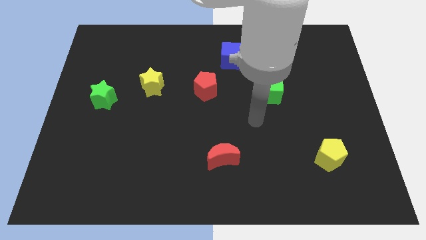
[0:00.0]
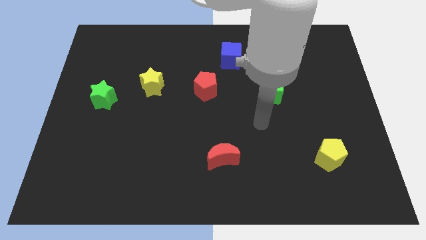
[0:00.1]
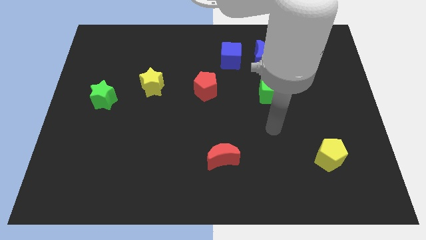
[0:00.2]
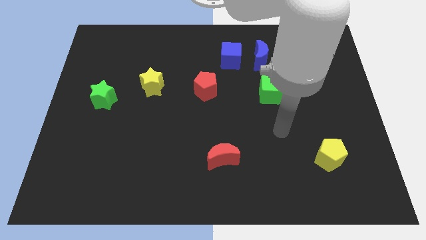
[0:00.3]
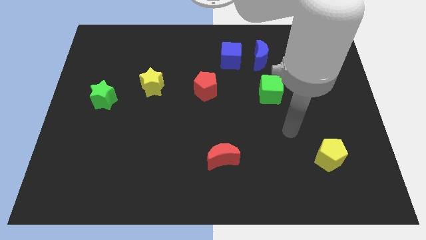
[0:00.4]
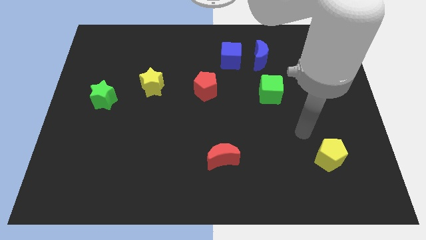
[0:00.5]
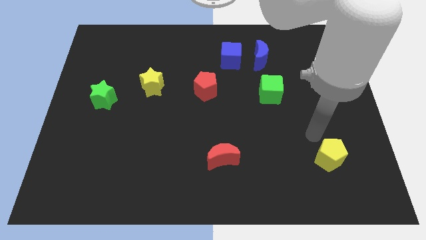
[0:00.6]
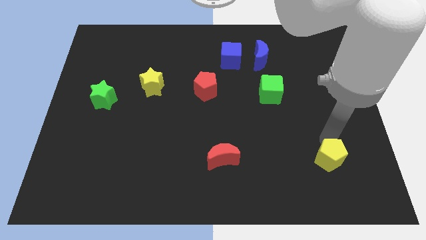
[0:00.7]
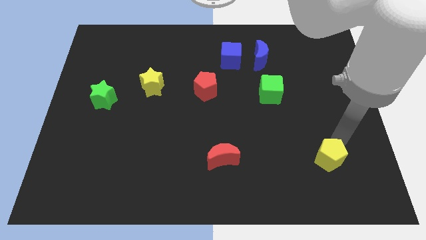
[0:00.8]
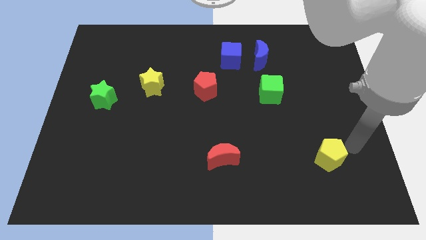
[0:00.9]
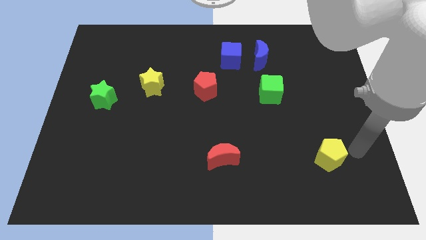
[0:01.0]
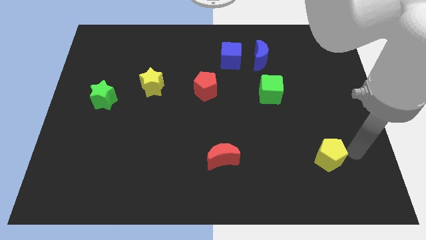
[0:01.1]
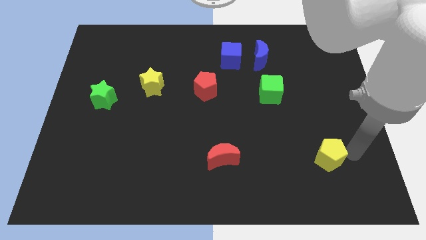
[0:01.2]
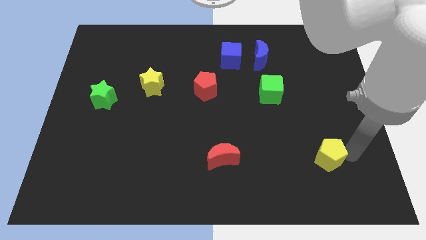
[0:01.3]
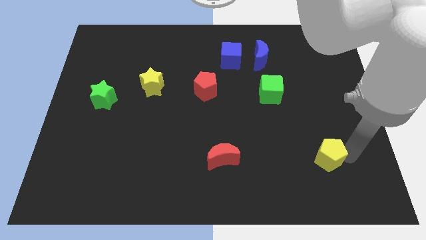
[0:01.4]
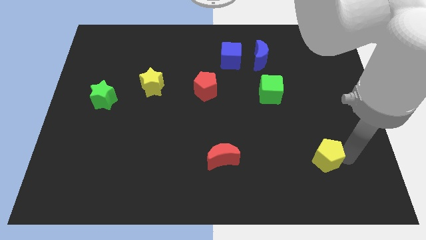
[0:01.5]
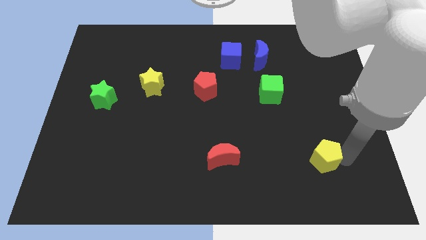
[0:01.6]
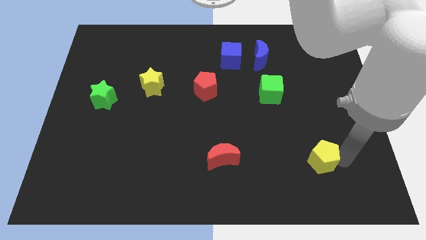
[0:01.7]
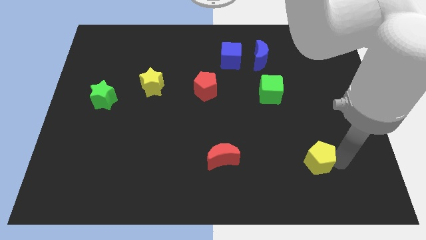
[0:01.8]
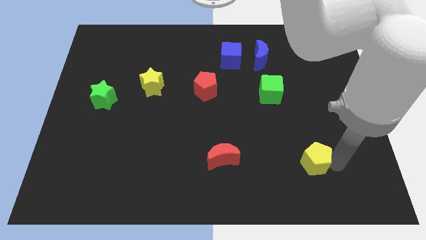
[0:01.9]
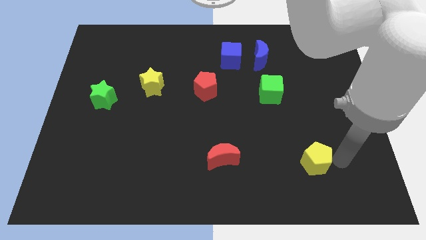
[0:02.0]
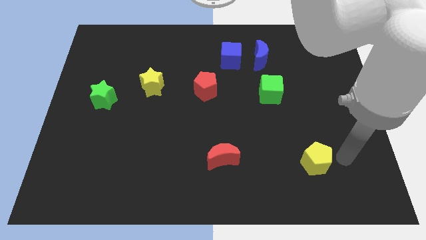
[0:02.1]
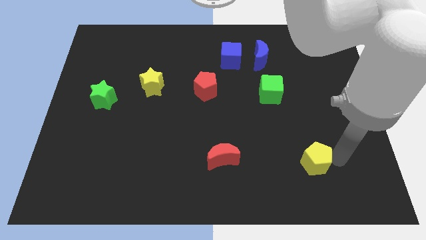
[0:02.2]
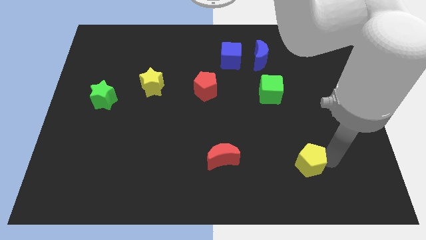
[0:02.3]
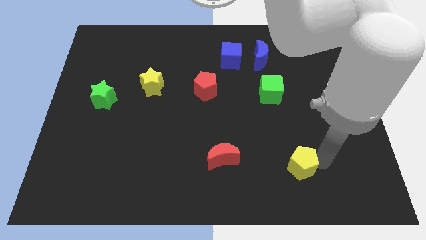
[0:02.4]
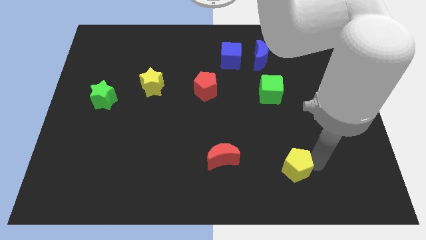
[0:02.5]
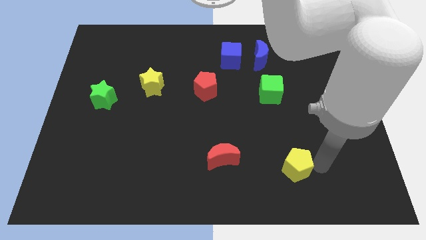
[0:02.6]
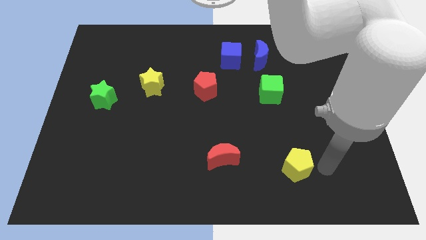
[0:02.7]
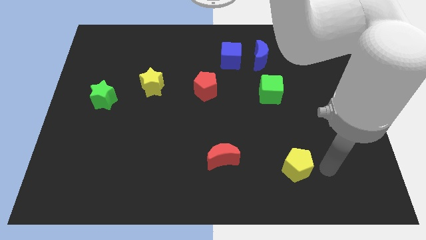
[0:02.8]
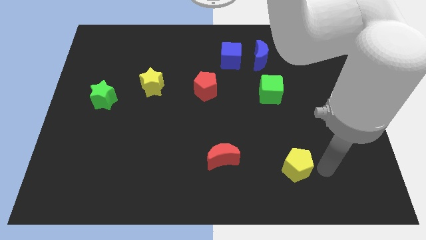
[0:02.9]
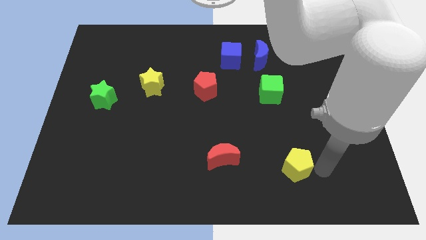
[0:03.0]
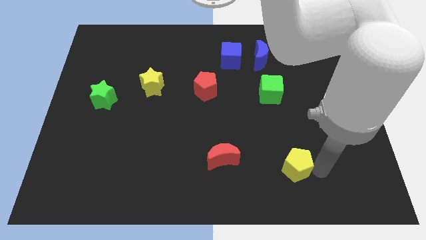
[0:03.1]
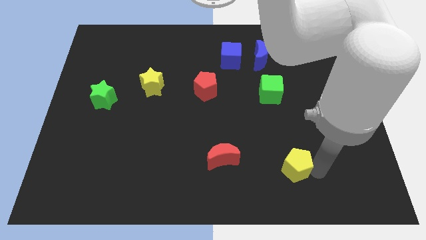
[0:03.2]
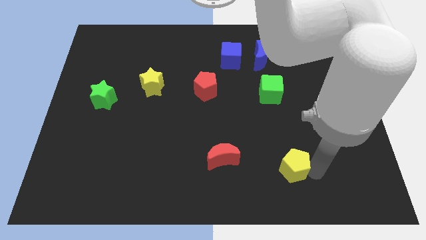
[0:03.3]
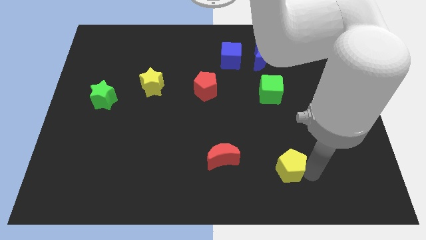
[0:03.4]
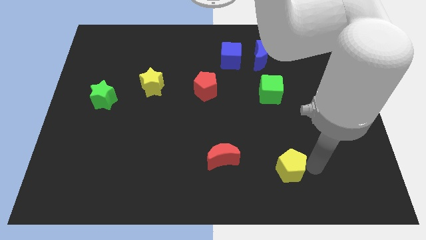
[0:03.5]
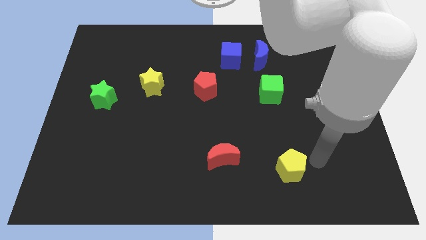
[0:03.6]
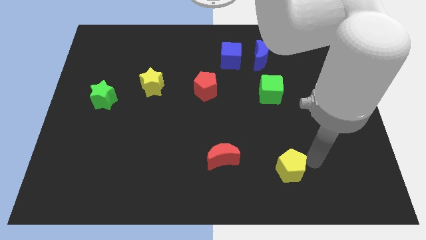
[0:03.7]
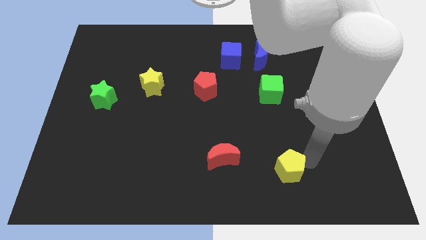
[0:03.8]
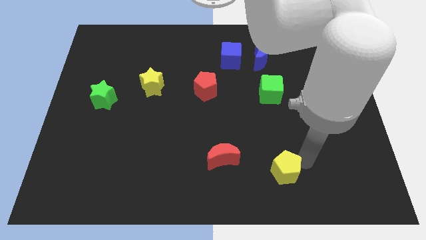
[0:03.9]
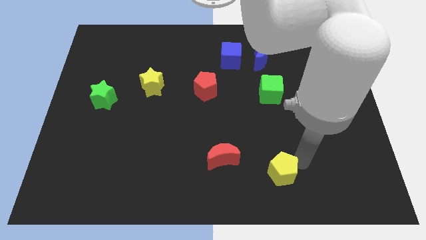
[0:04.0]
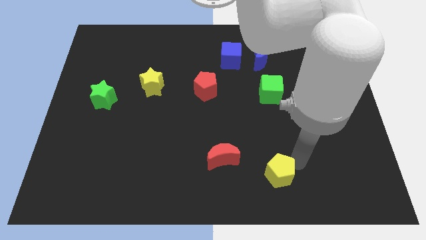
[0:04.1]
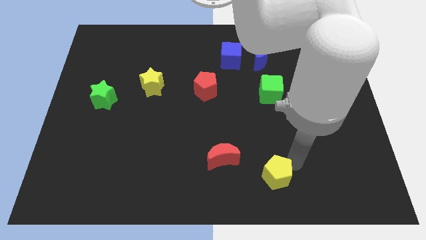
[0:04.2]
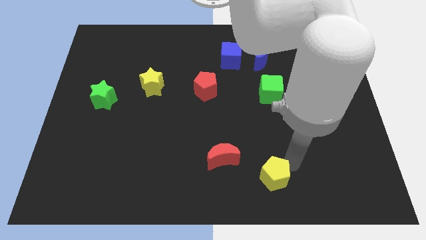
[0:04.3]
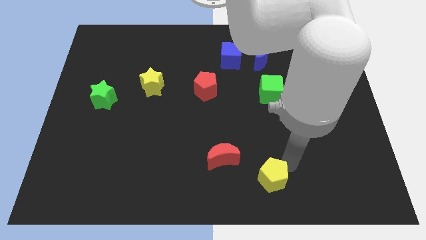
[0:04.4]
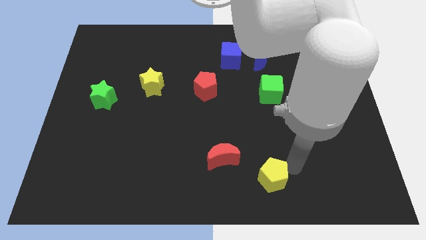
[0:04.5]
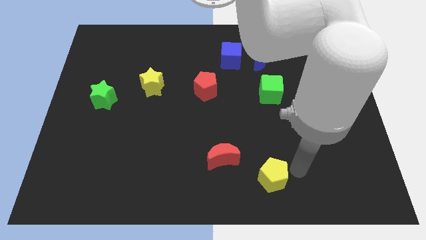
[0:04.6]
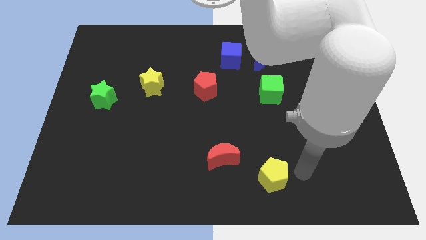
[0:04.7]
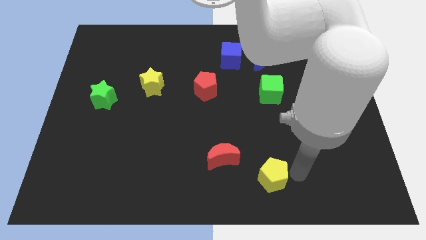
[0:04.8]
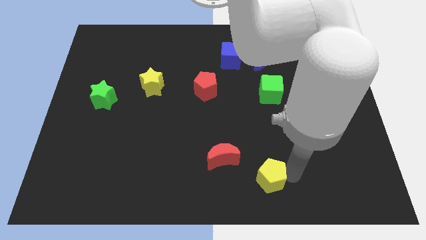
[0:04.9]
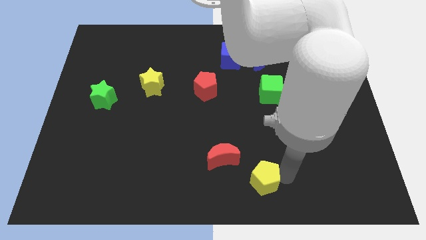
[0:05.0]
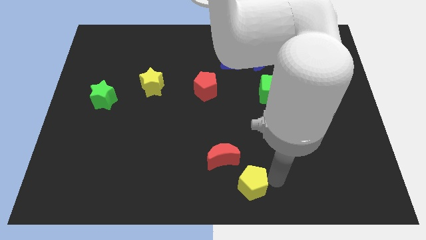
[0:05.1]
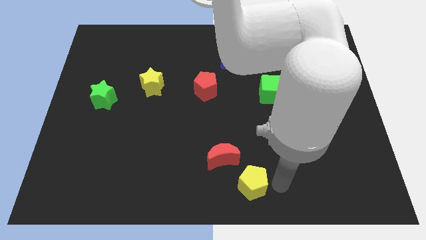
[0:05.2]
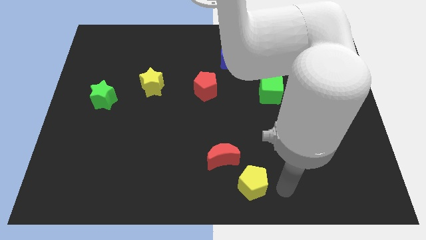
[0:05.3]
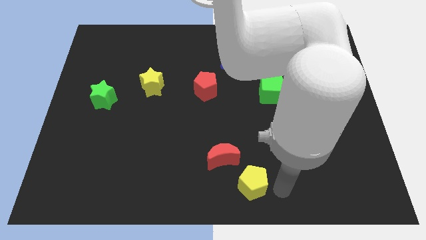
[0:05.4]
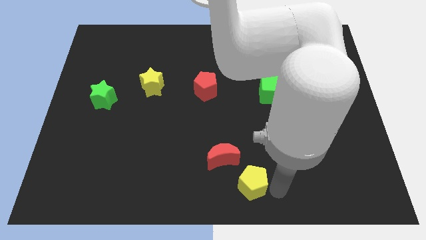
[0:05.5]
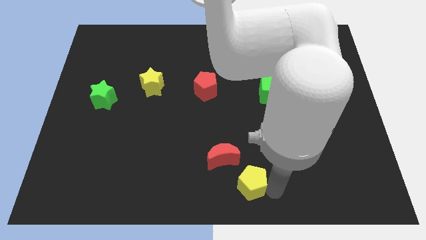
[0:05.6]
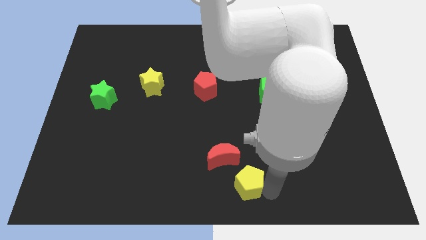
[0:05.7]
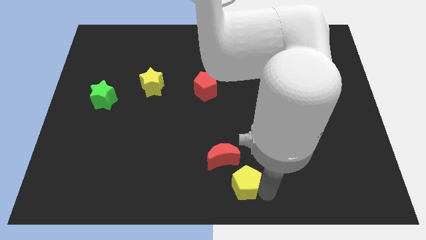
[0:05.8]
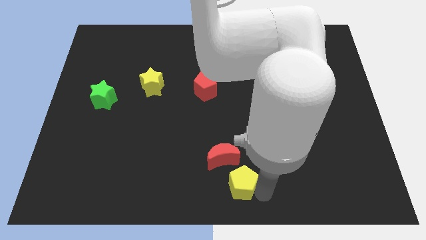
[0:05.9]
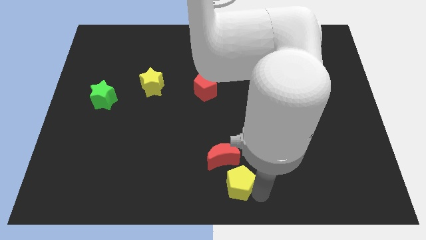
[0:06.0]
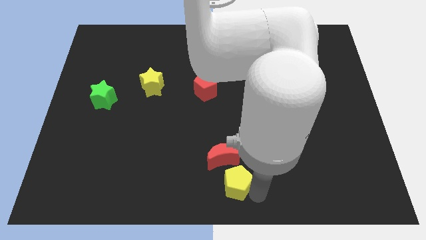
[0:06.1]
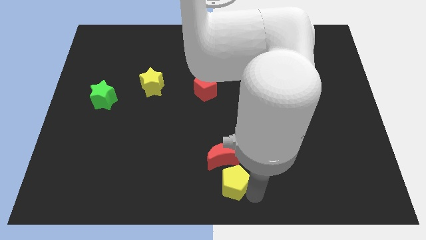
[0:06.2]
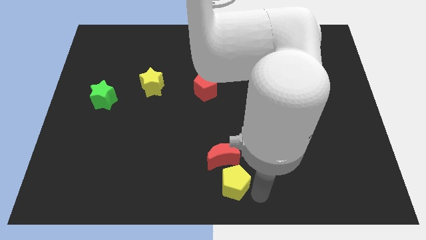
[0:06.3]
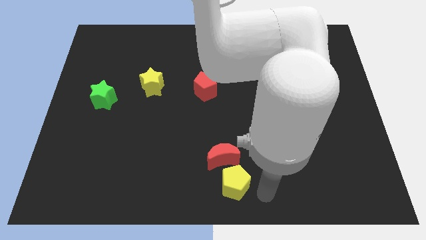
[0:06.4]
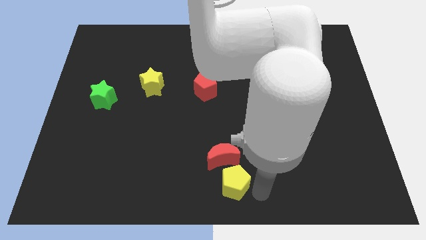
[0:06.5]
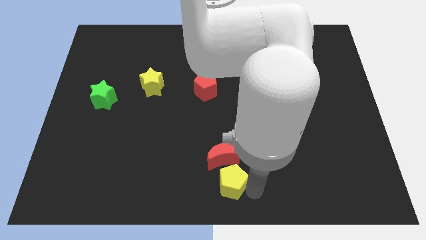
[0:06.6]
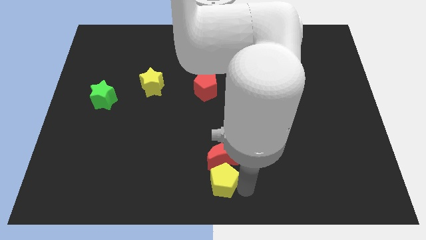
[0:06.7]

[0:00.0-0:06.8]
move the yellow pentagon left

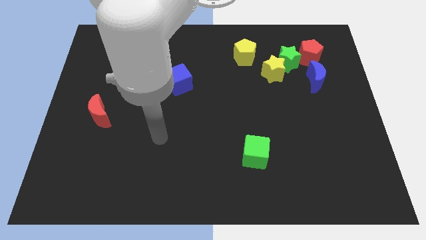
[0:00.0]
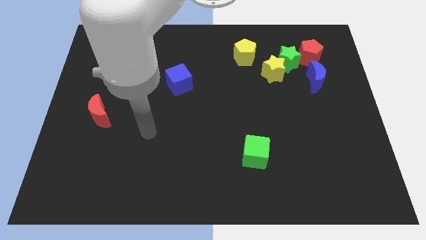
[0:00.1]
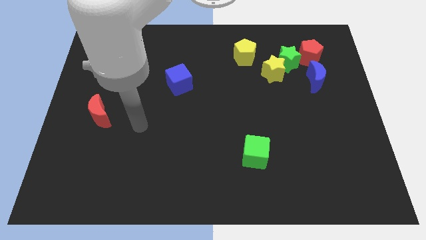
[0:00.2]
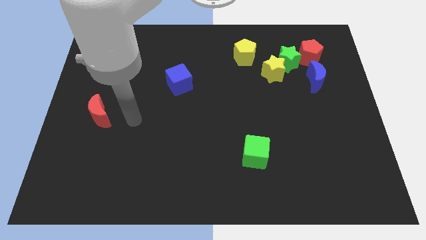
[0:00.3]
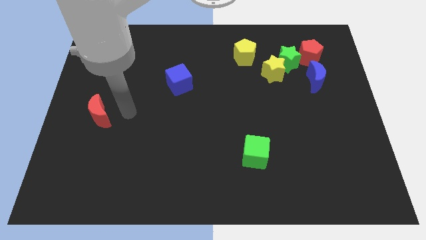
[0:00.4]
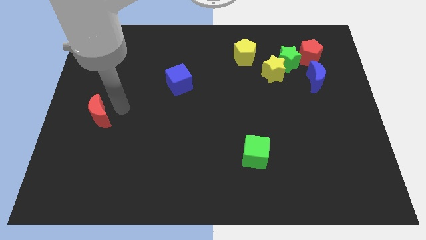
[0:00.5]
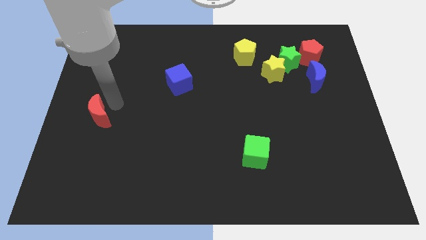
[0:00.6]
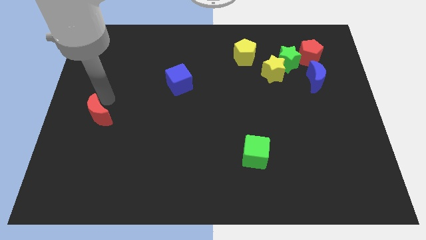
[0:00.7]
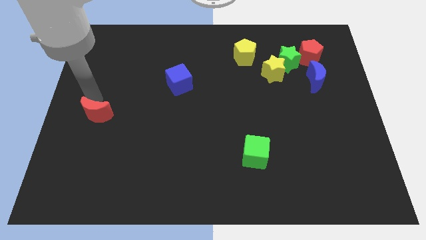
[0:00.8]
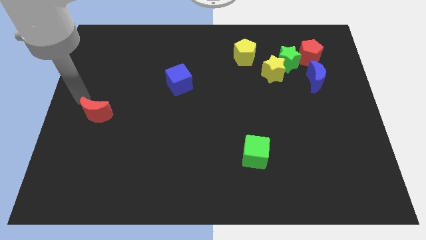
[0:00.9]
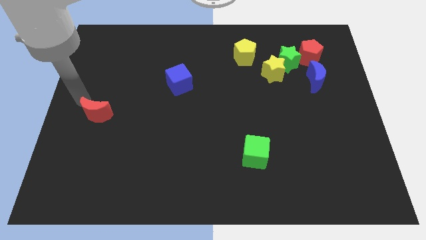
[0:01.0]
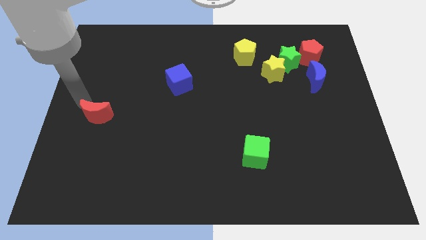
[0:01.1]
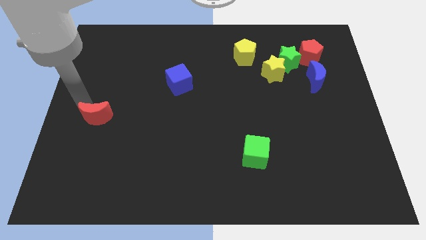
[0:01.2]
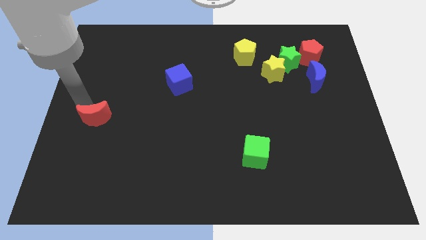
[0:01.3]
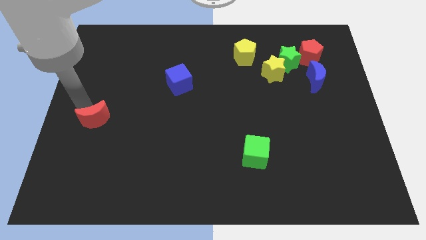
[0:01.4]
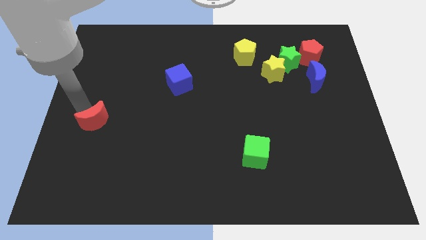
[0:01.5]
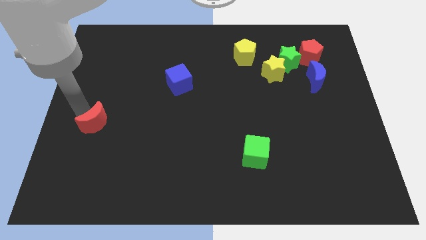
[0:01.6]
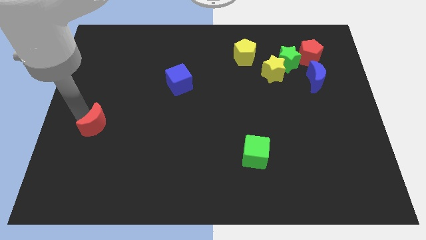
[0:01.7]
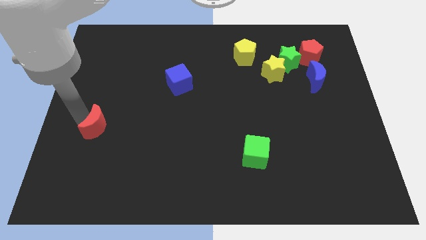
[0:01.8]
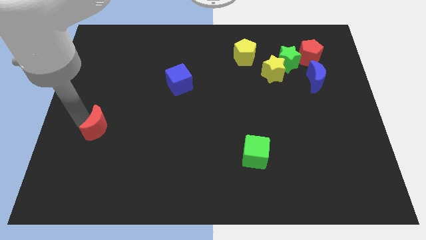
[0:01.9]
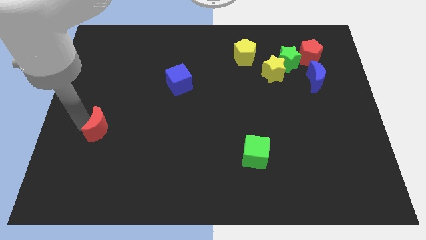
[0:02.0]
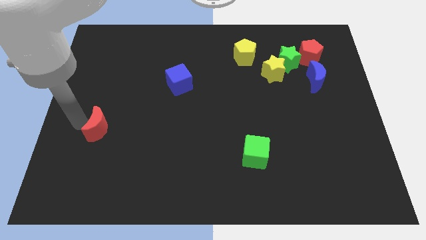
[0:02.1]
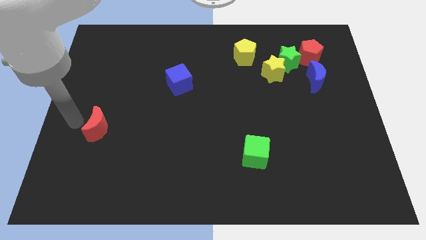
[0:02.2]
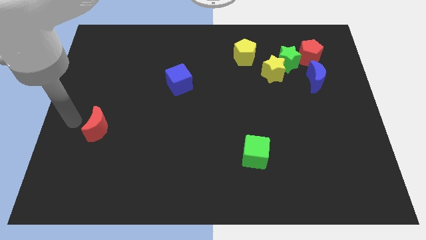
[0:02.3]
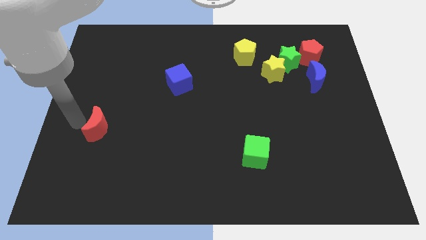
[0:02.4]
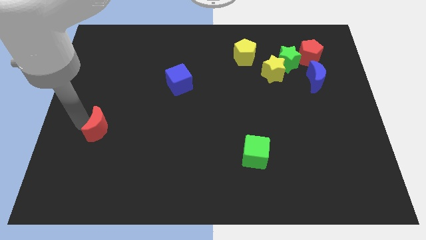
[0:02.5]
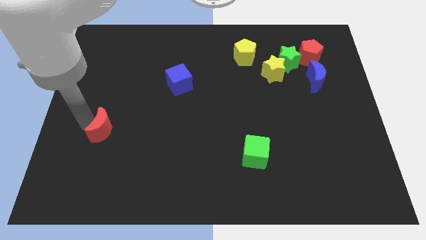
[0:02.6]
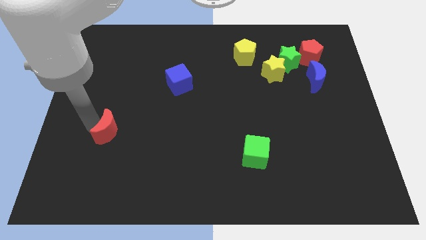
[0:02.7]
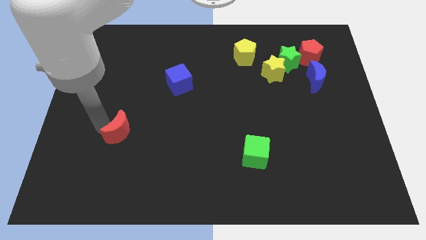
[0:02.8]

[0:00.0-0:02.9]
slightly slide the red moon diagonally downwards and right
